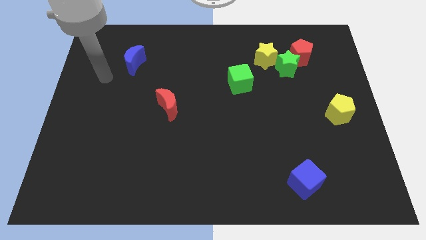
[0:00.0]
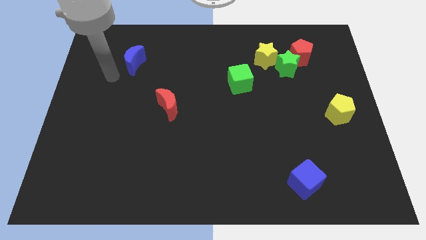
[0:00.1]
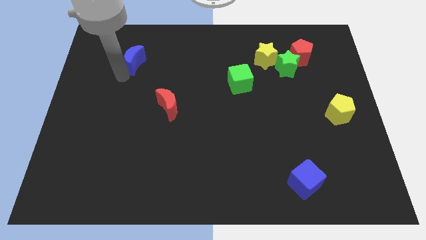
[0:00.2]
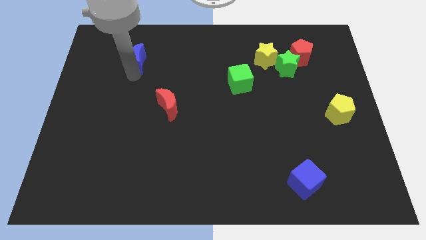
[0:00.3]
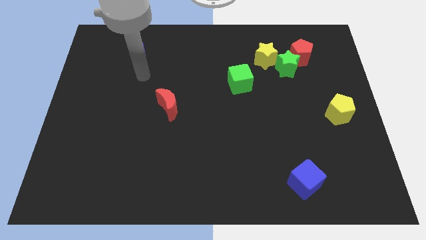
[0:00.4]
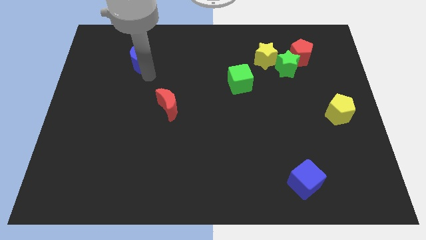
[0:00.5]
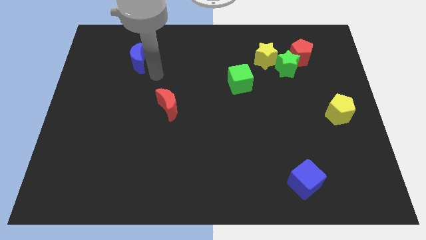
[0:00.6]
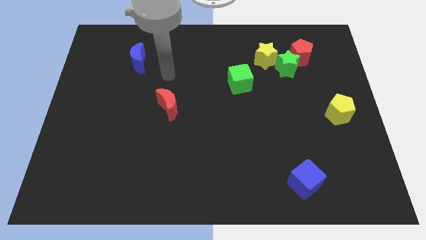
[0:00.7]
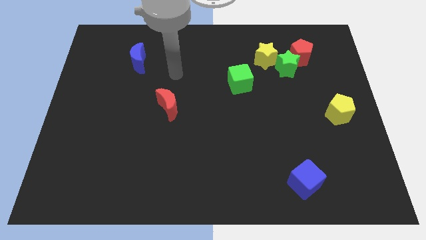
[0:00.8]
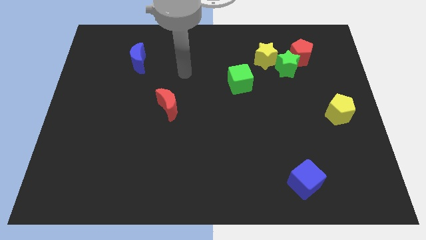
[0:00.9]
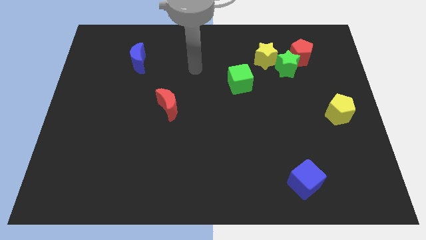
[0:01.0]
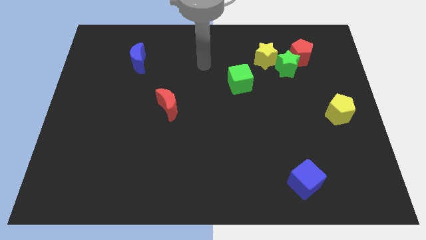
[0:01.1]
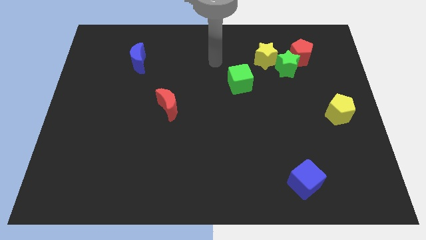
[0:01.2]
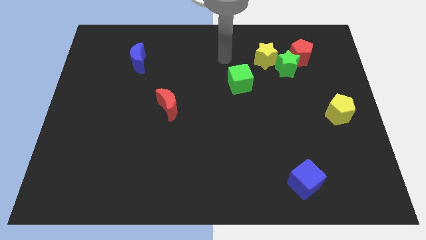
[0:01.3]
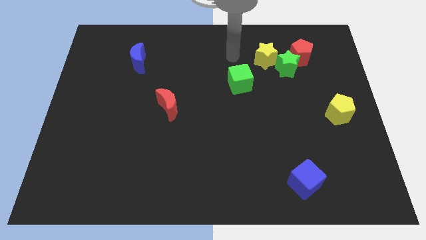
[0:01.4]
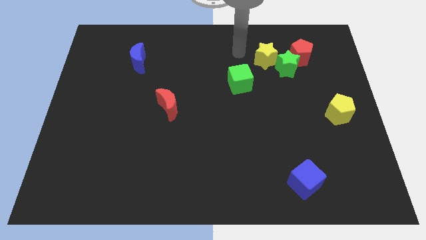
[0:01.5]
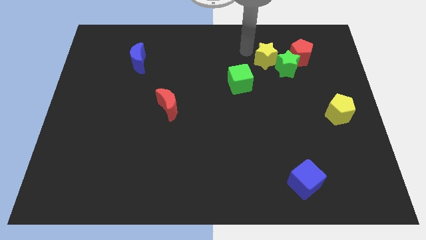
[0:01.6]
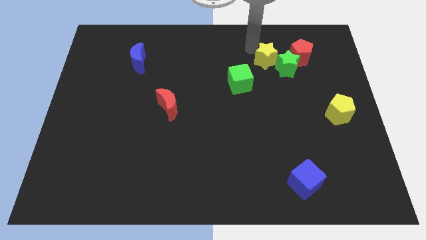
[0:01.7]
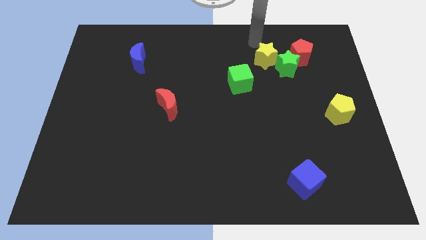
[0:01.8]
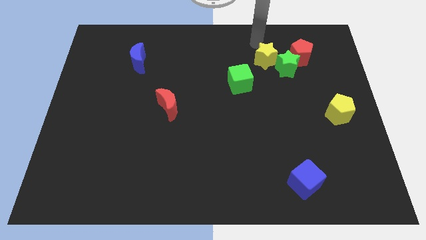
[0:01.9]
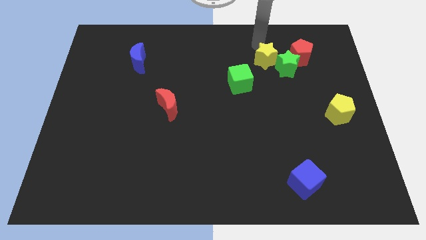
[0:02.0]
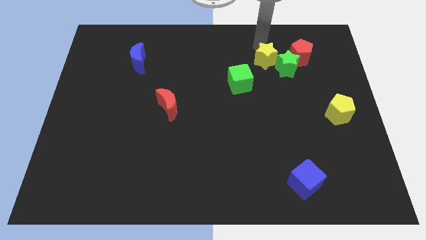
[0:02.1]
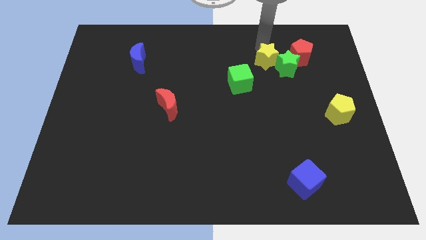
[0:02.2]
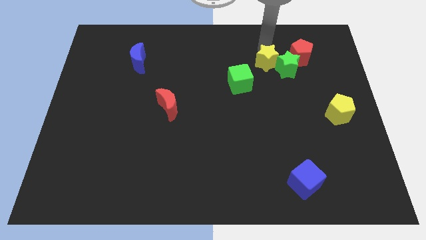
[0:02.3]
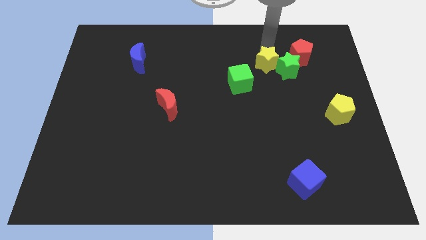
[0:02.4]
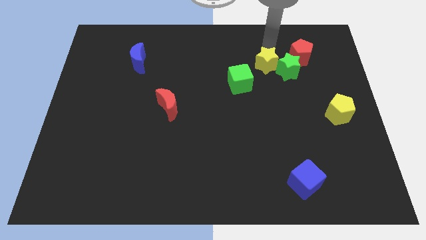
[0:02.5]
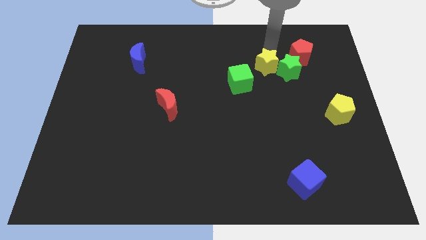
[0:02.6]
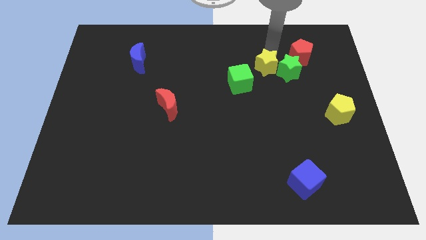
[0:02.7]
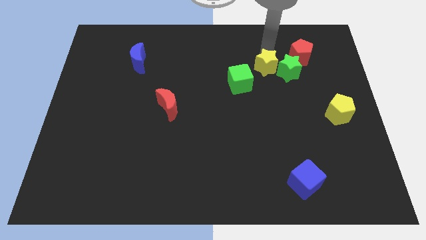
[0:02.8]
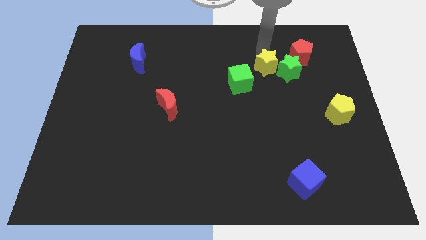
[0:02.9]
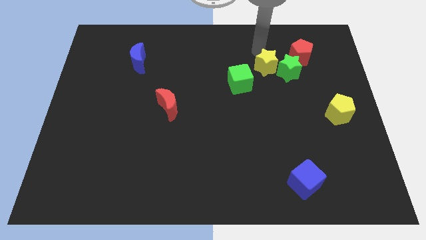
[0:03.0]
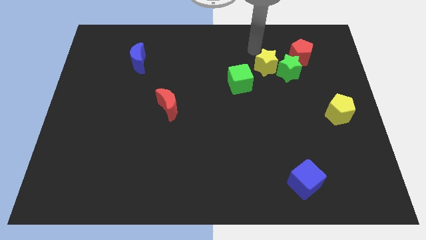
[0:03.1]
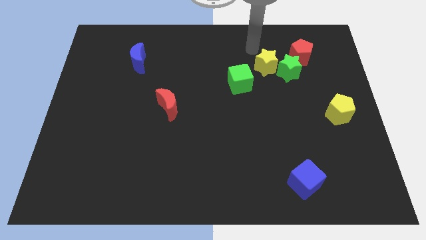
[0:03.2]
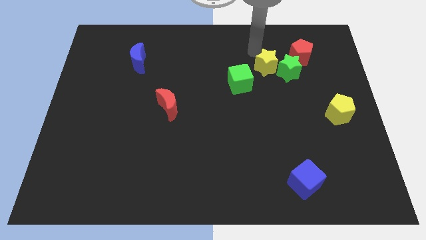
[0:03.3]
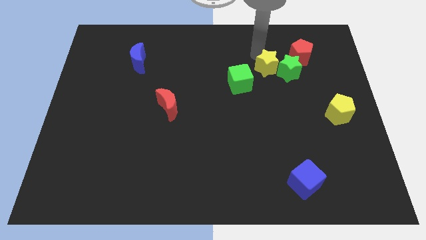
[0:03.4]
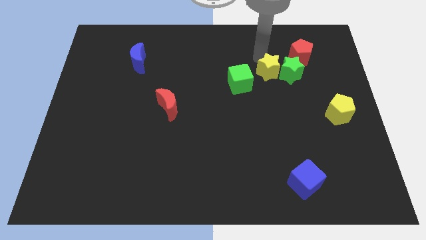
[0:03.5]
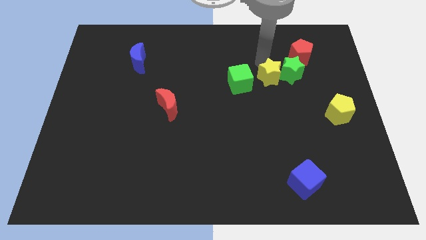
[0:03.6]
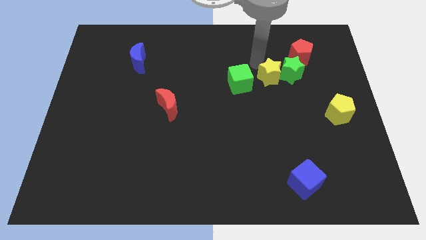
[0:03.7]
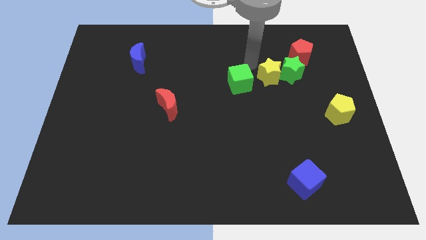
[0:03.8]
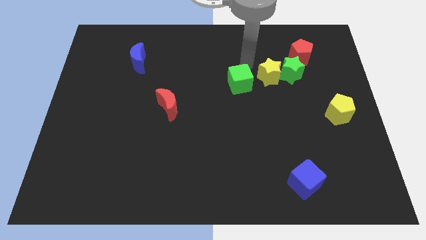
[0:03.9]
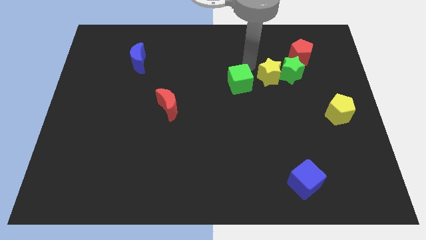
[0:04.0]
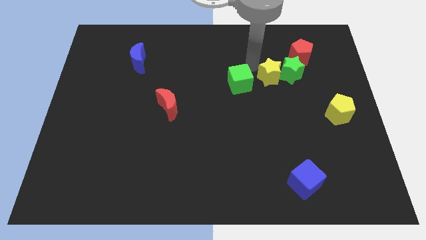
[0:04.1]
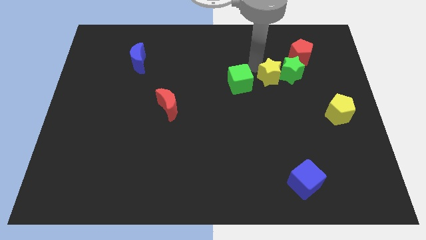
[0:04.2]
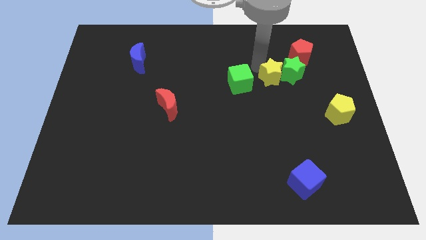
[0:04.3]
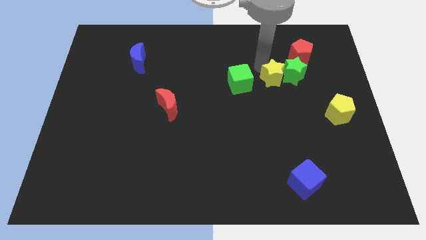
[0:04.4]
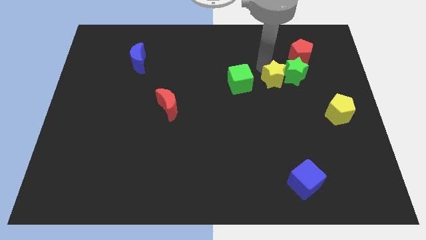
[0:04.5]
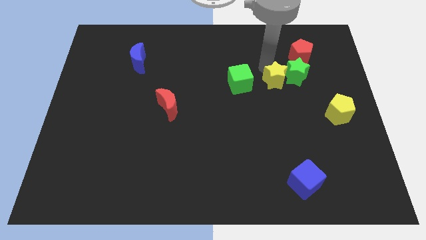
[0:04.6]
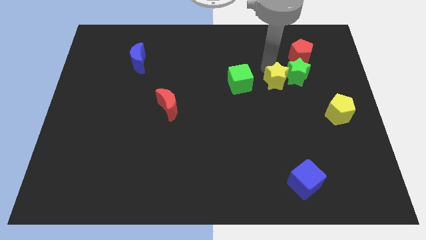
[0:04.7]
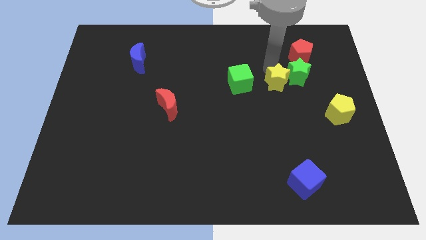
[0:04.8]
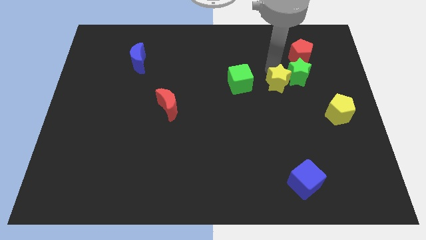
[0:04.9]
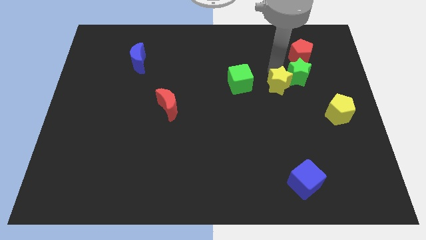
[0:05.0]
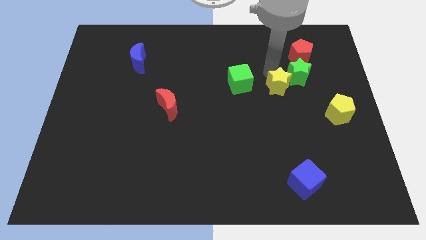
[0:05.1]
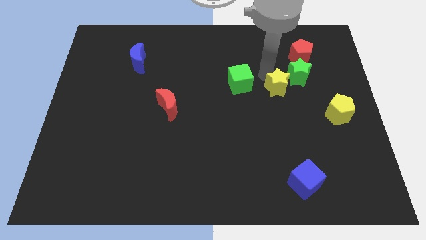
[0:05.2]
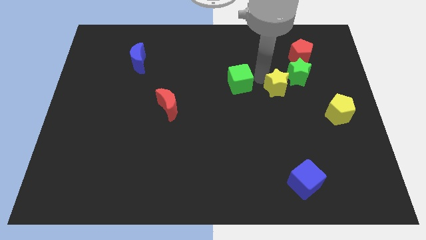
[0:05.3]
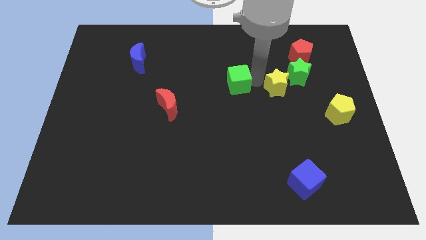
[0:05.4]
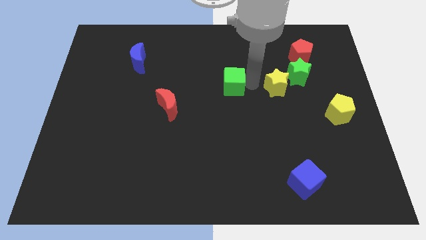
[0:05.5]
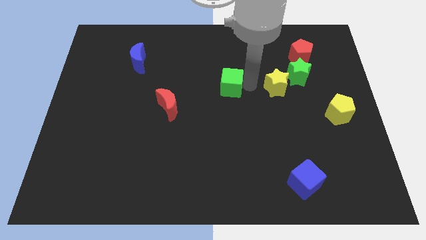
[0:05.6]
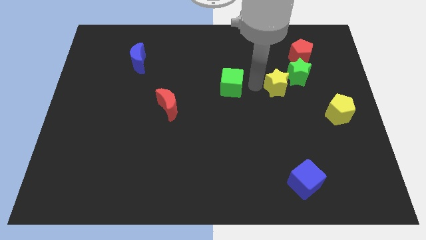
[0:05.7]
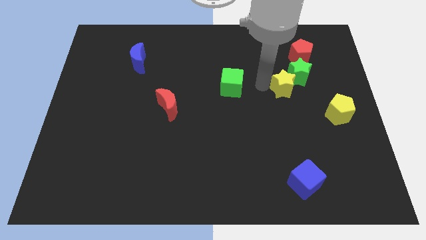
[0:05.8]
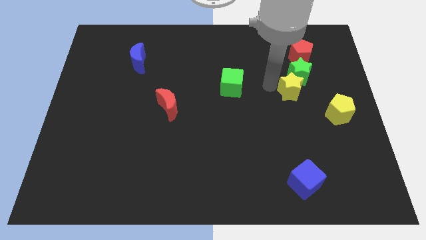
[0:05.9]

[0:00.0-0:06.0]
slide the yellow star below the red pentagon

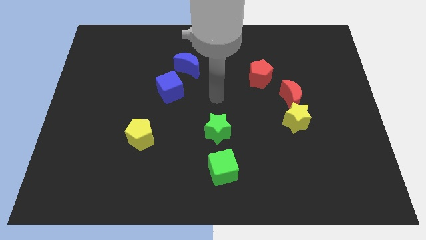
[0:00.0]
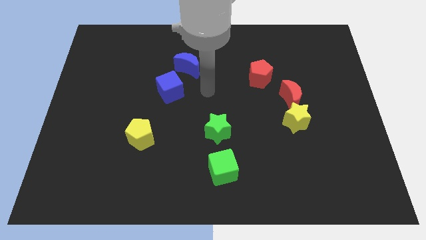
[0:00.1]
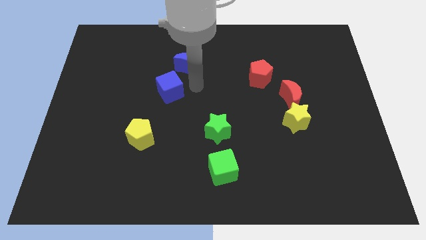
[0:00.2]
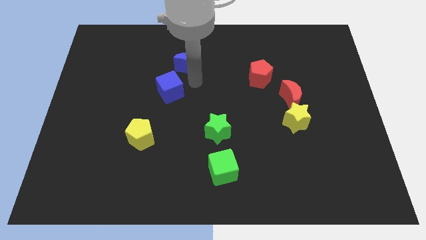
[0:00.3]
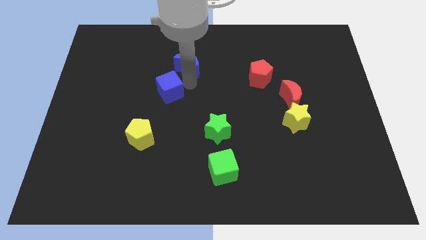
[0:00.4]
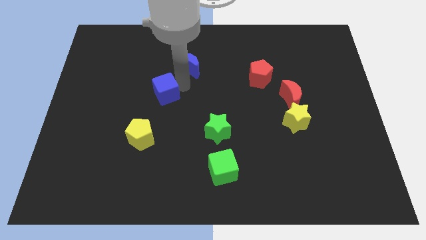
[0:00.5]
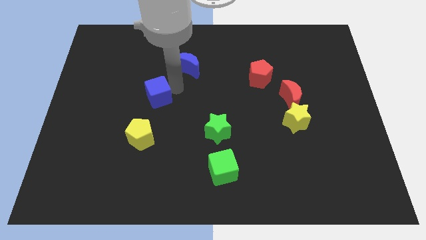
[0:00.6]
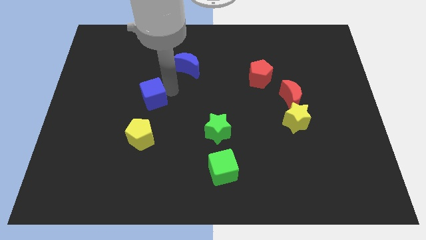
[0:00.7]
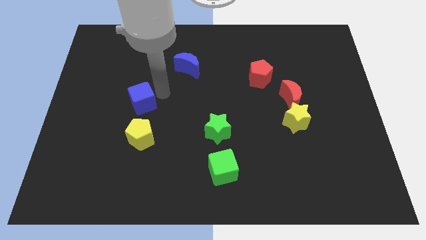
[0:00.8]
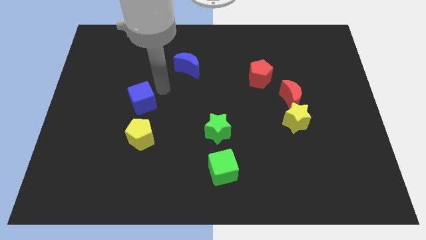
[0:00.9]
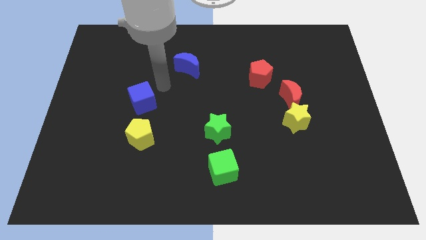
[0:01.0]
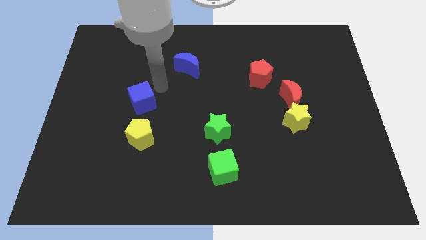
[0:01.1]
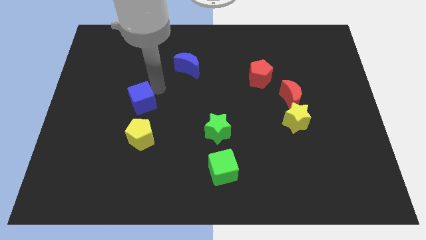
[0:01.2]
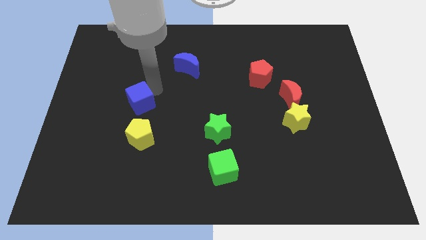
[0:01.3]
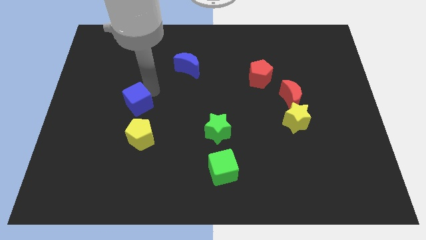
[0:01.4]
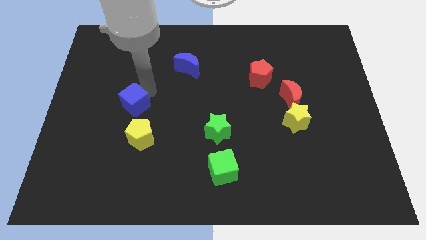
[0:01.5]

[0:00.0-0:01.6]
slide the blue cube diagonally up and to the left of the yellow pentagon
